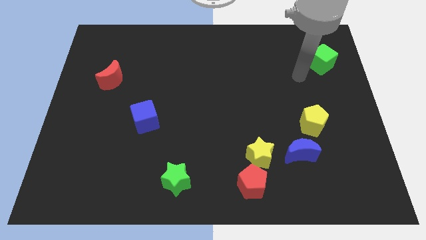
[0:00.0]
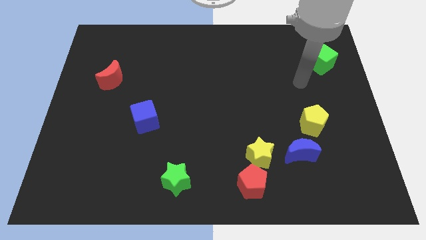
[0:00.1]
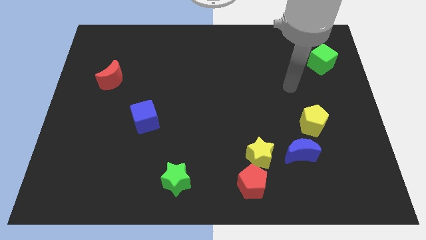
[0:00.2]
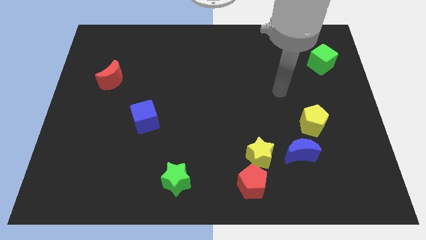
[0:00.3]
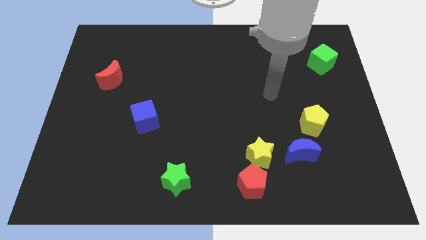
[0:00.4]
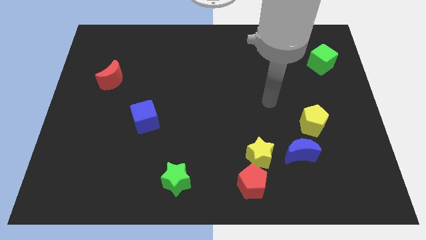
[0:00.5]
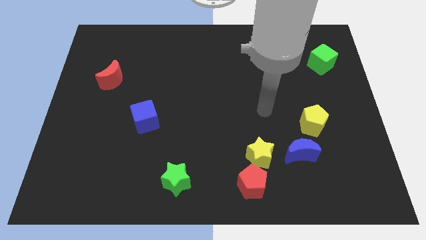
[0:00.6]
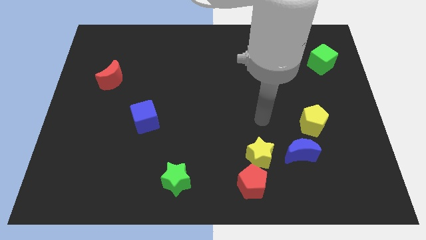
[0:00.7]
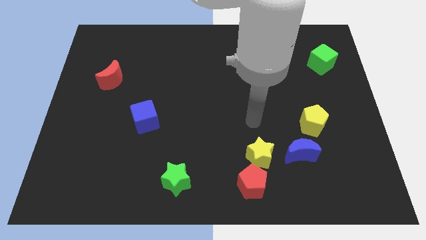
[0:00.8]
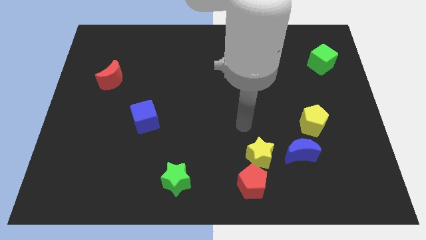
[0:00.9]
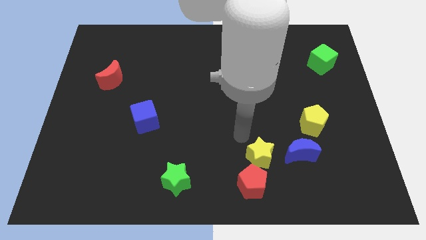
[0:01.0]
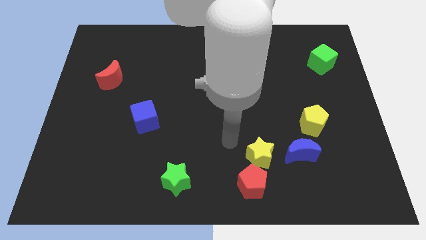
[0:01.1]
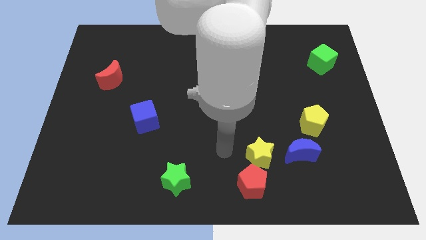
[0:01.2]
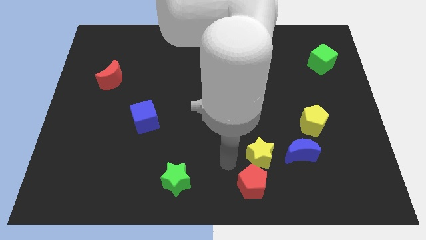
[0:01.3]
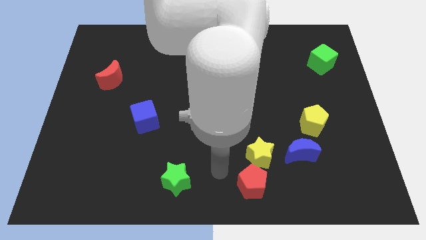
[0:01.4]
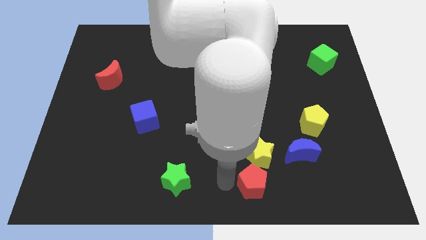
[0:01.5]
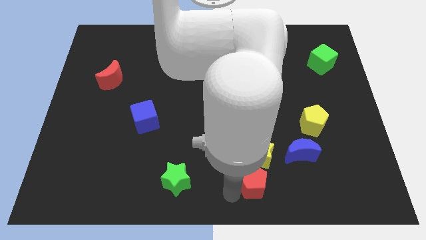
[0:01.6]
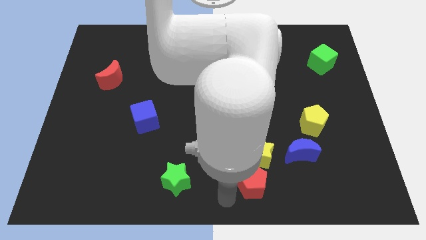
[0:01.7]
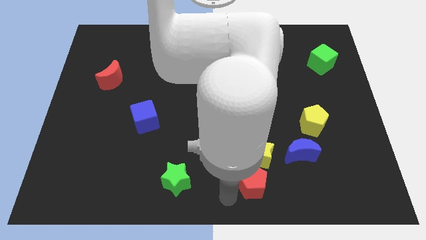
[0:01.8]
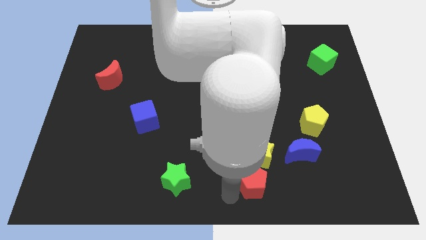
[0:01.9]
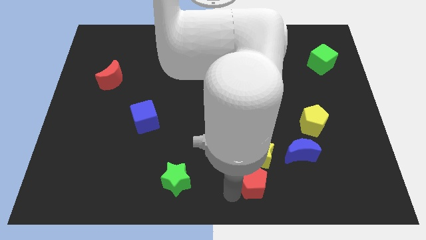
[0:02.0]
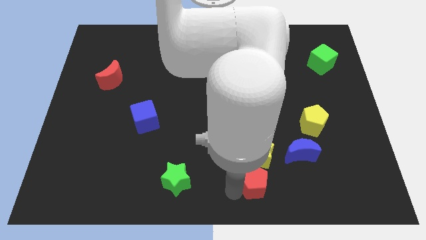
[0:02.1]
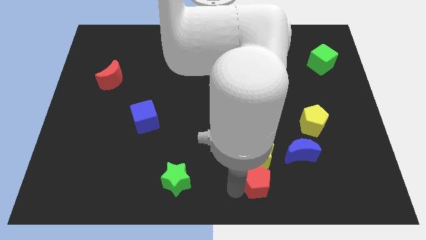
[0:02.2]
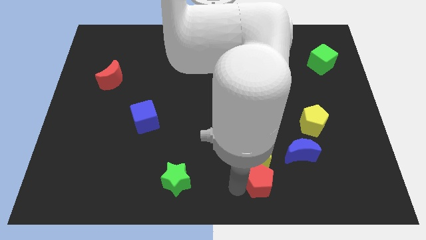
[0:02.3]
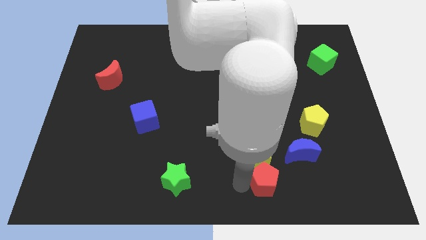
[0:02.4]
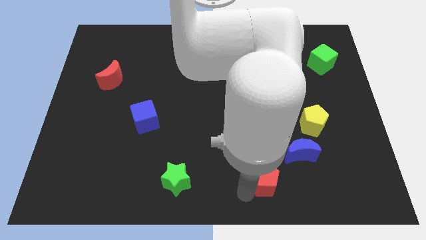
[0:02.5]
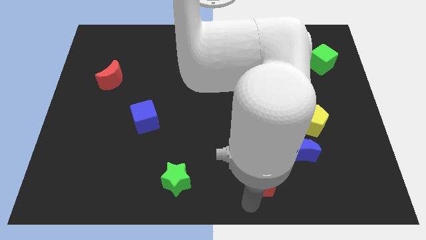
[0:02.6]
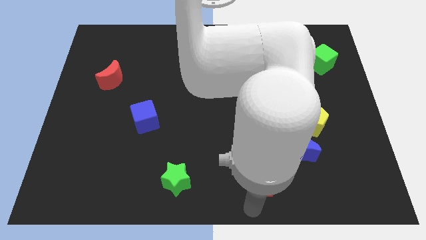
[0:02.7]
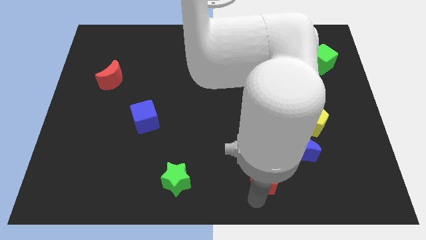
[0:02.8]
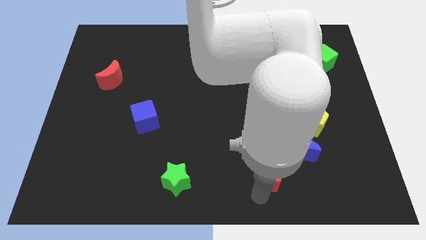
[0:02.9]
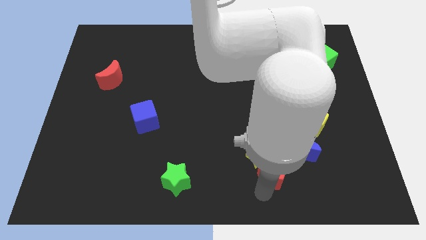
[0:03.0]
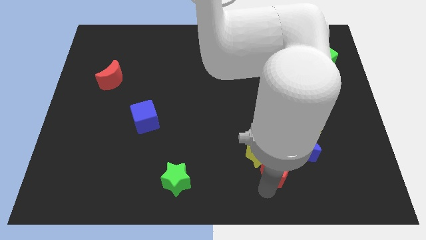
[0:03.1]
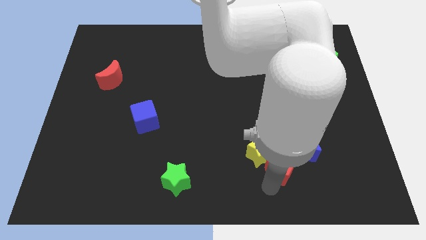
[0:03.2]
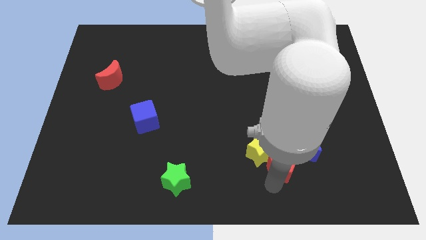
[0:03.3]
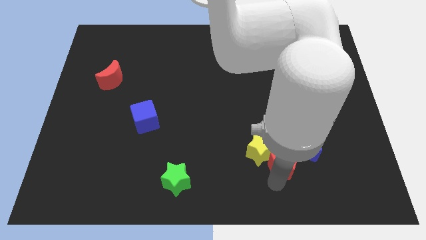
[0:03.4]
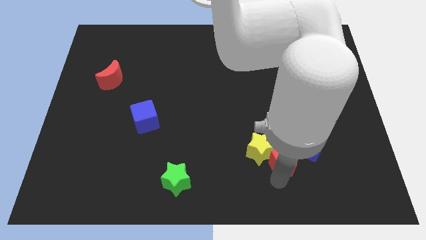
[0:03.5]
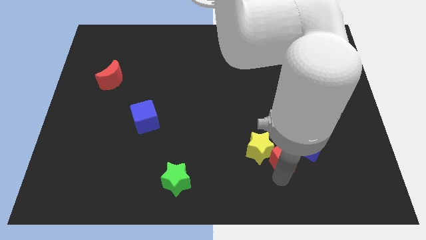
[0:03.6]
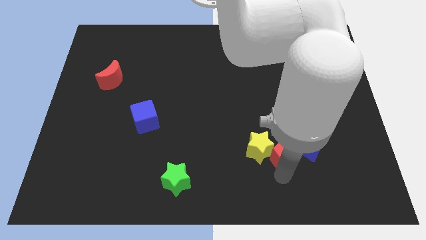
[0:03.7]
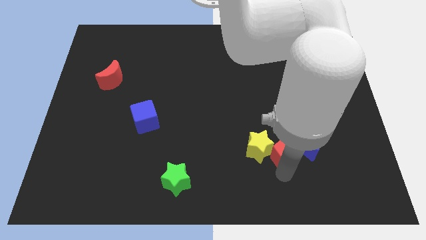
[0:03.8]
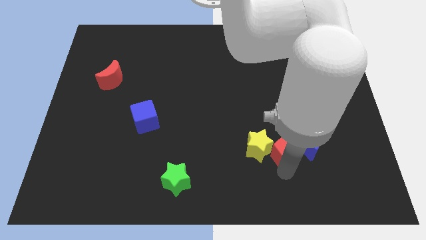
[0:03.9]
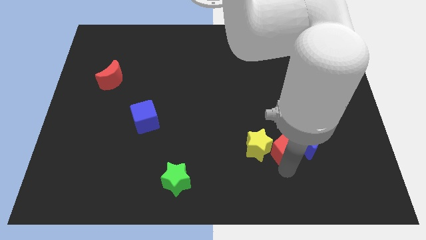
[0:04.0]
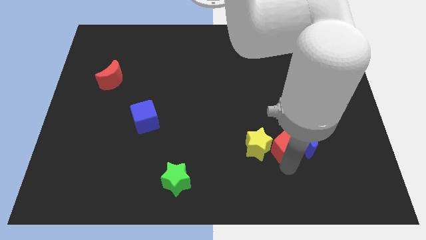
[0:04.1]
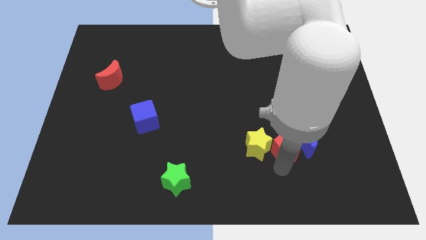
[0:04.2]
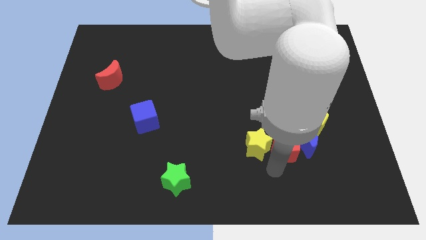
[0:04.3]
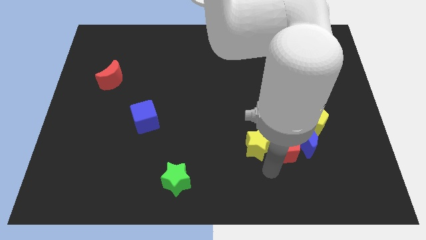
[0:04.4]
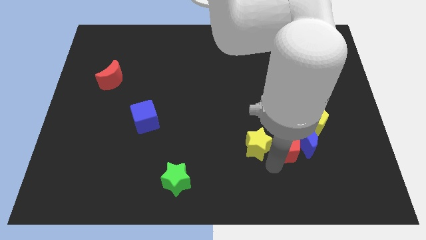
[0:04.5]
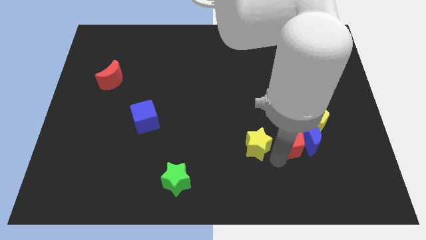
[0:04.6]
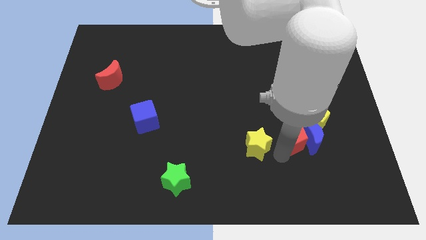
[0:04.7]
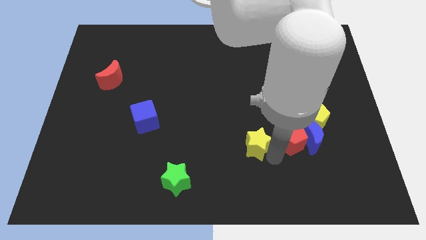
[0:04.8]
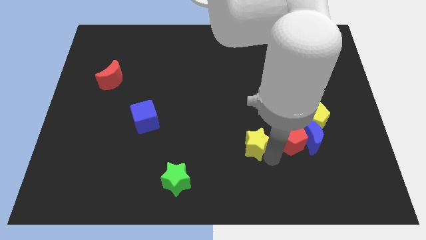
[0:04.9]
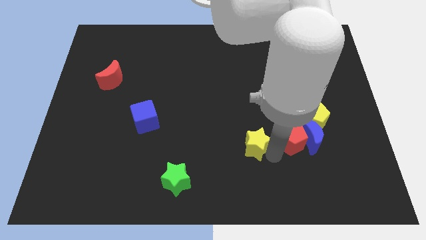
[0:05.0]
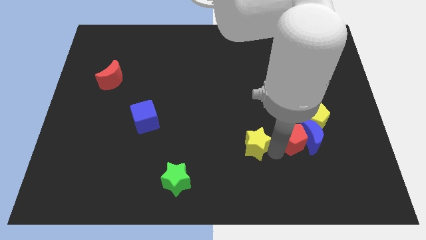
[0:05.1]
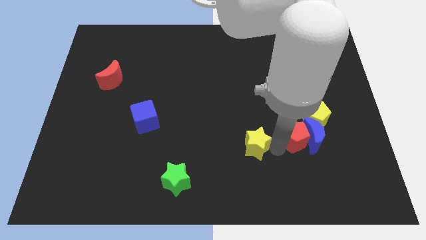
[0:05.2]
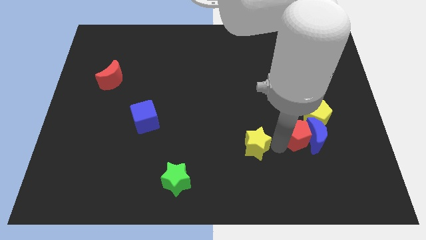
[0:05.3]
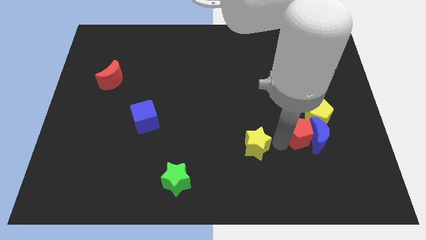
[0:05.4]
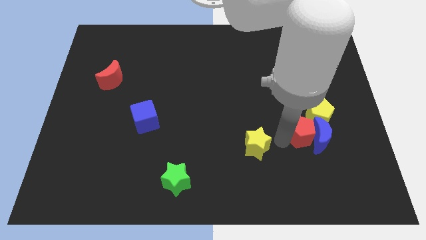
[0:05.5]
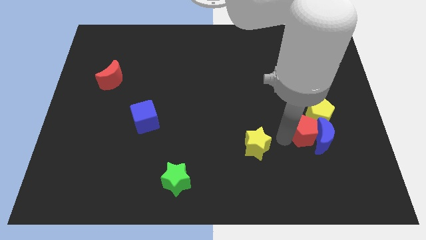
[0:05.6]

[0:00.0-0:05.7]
move the red pentagon to the yellow pentagon

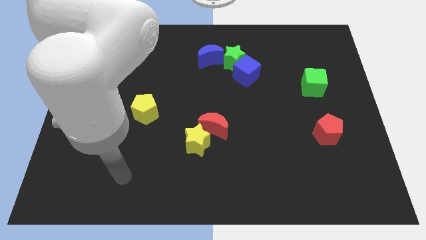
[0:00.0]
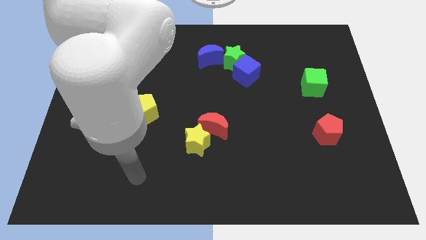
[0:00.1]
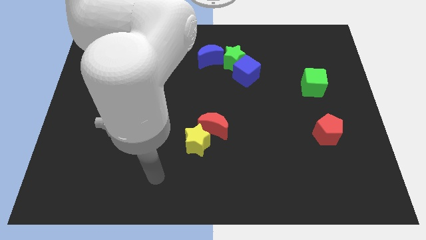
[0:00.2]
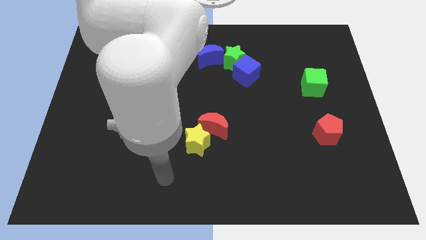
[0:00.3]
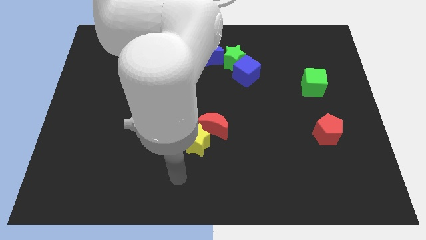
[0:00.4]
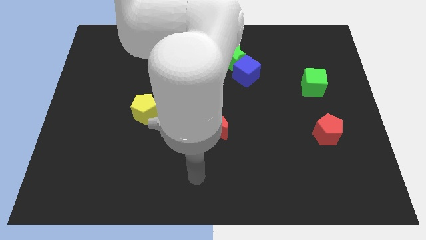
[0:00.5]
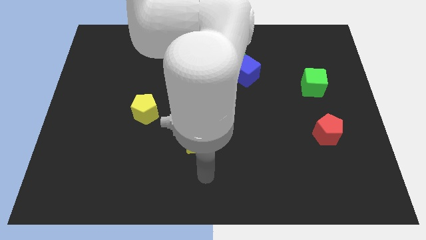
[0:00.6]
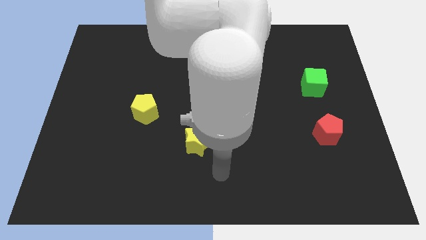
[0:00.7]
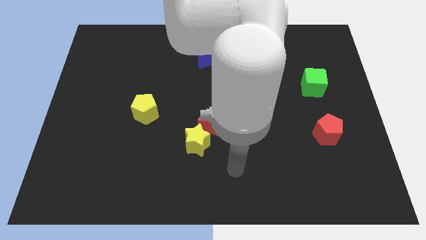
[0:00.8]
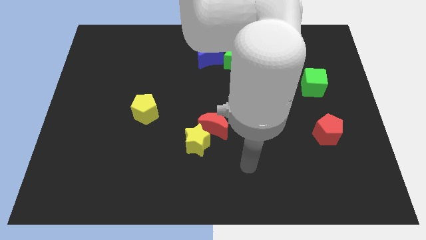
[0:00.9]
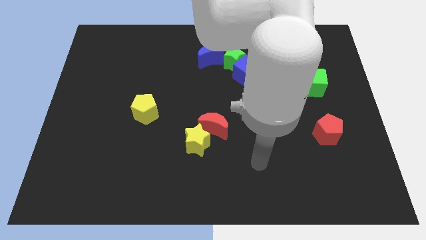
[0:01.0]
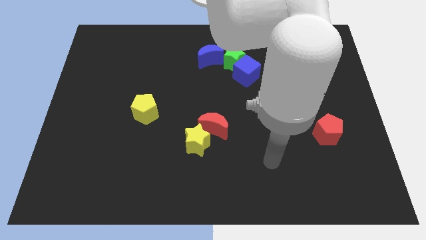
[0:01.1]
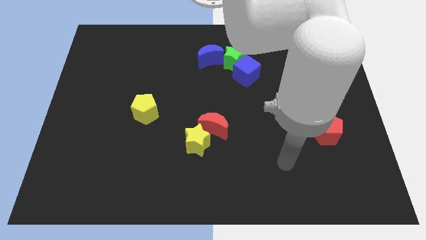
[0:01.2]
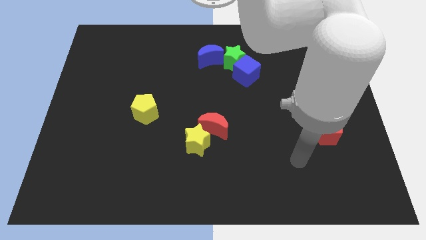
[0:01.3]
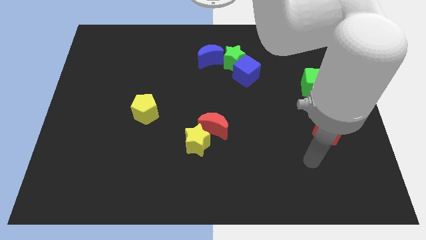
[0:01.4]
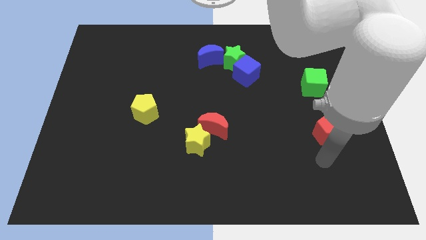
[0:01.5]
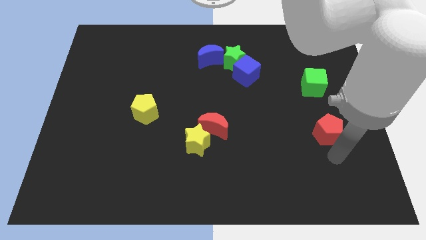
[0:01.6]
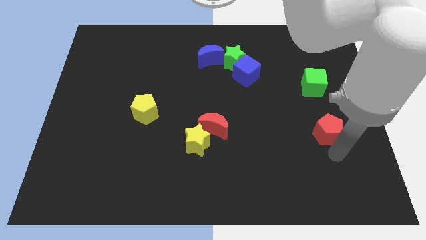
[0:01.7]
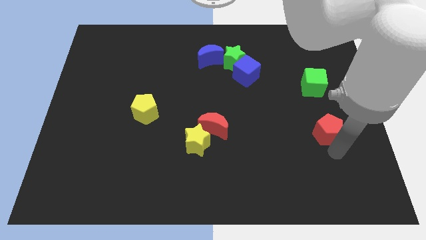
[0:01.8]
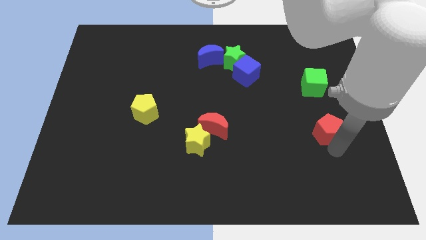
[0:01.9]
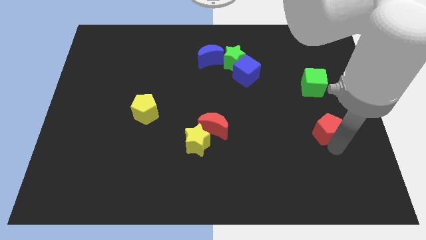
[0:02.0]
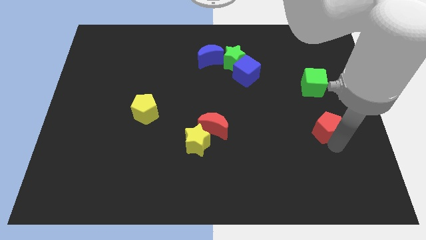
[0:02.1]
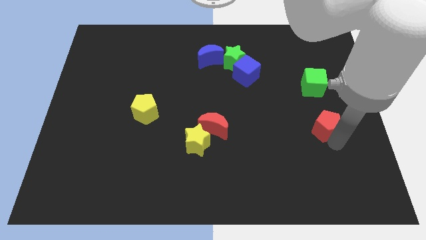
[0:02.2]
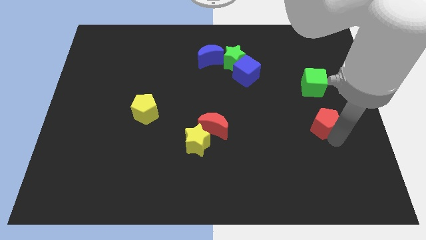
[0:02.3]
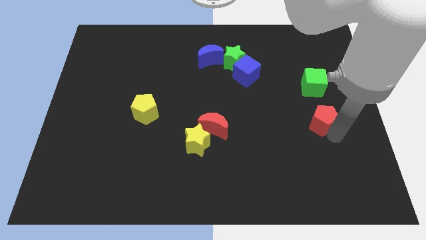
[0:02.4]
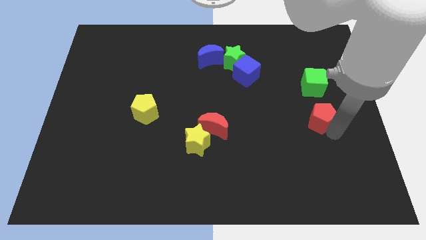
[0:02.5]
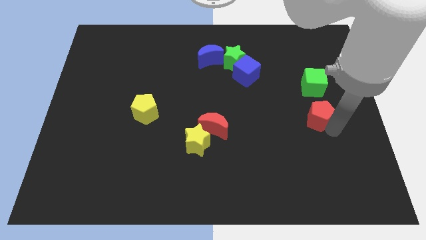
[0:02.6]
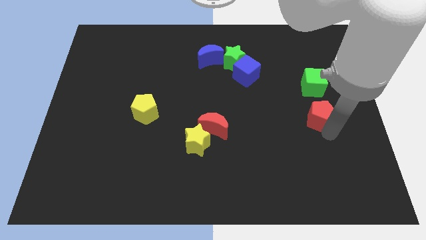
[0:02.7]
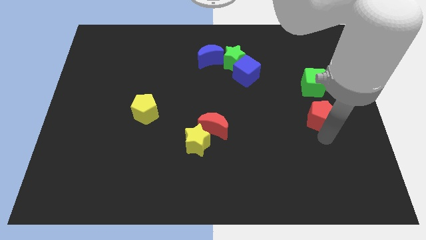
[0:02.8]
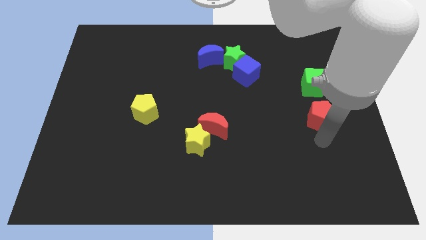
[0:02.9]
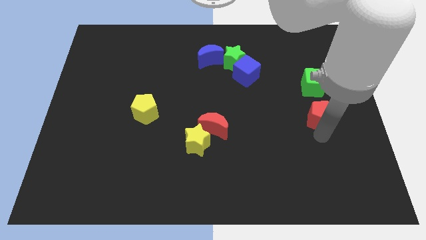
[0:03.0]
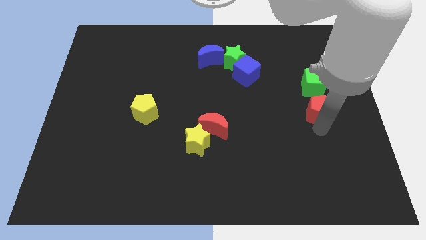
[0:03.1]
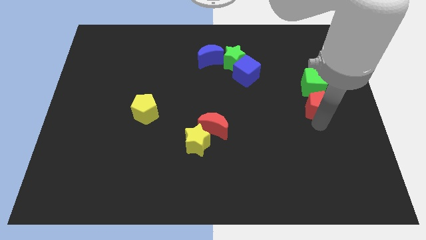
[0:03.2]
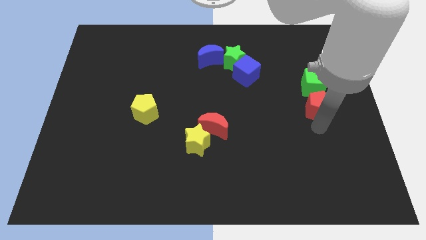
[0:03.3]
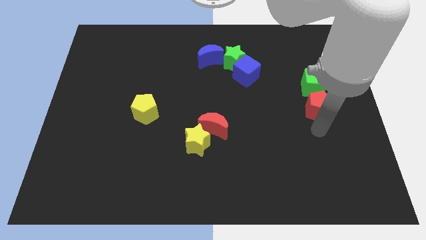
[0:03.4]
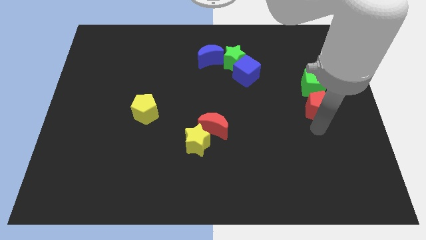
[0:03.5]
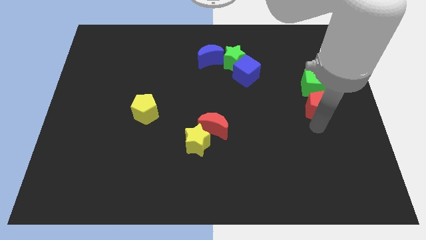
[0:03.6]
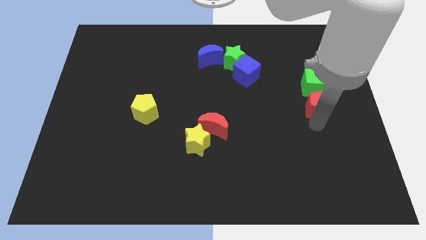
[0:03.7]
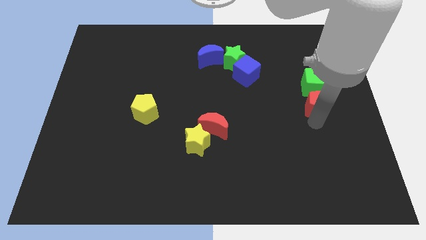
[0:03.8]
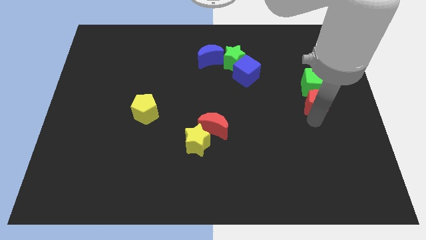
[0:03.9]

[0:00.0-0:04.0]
move the red pentagon to the green cube
